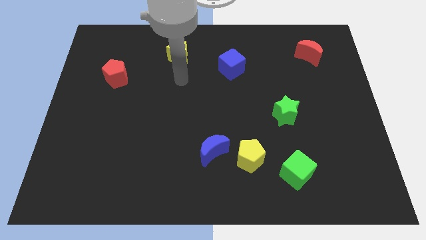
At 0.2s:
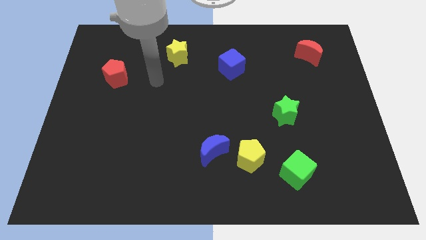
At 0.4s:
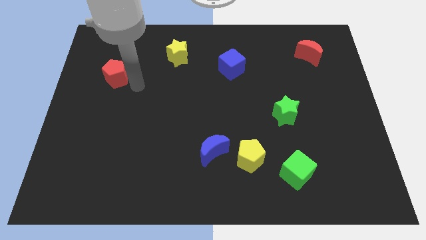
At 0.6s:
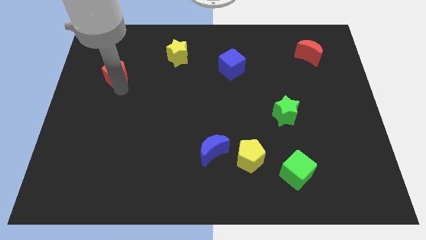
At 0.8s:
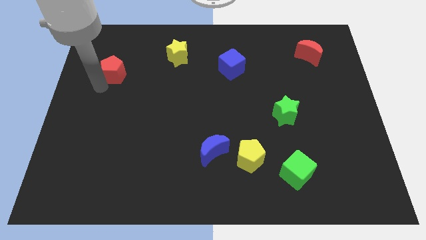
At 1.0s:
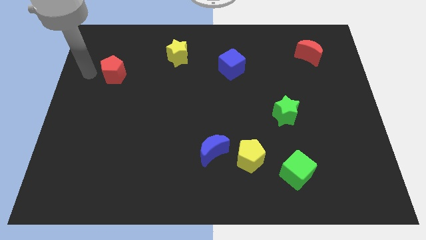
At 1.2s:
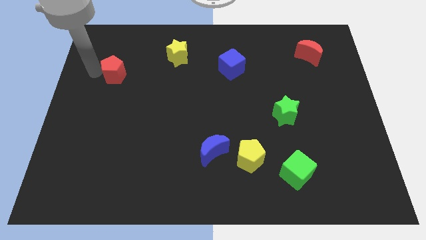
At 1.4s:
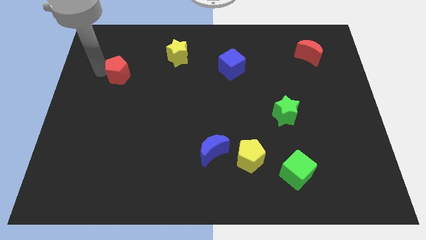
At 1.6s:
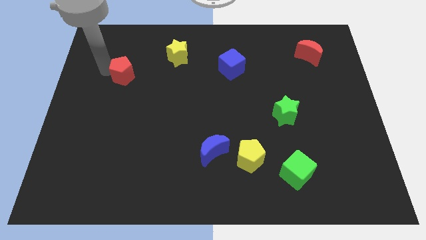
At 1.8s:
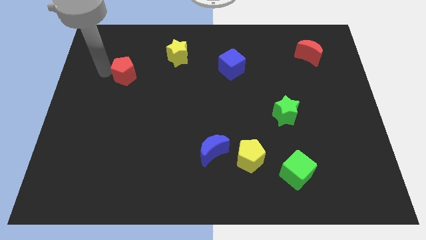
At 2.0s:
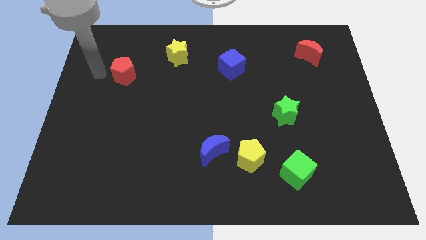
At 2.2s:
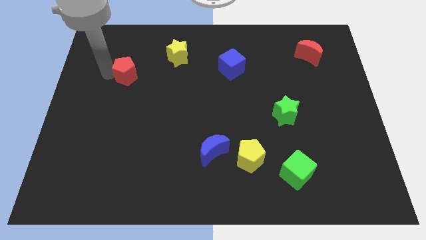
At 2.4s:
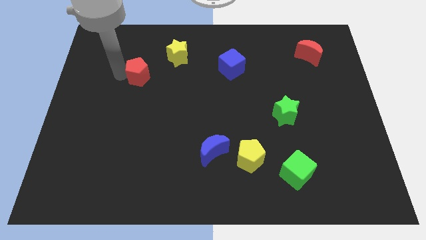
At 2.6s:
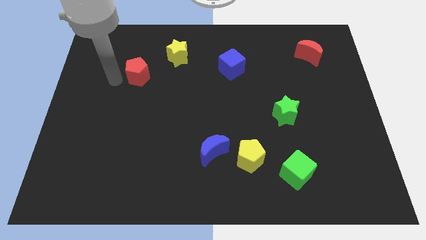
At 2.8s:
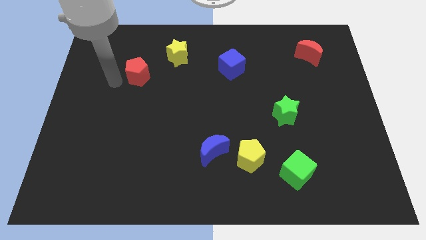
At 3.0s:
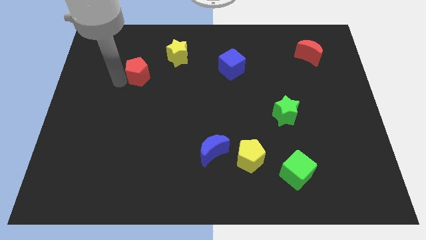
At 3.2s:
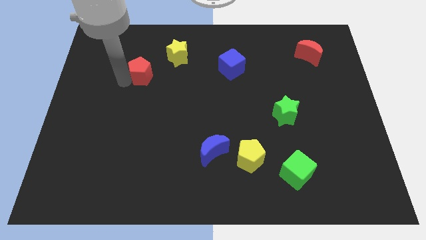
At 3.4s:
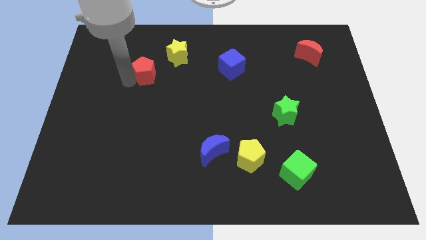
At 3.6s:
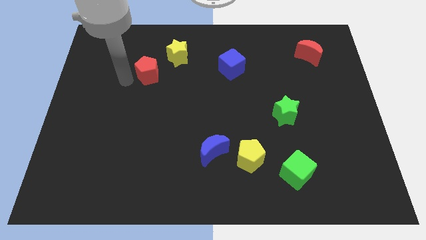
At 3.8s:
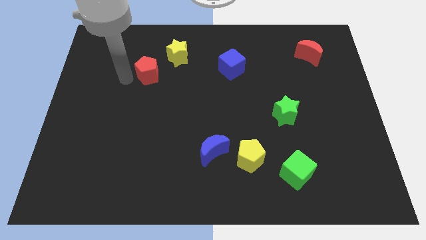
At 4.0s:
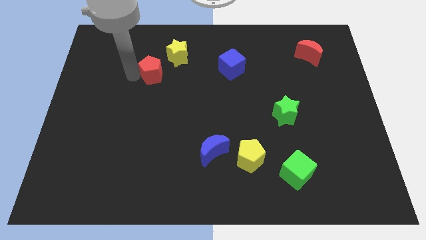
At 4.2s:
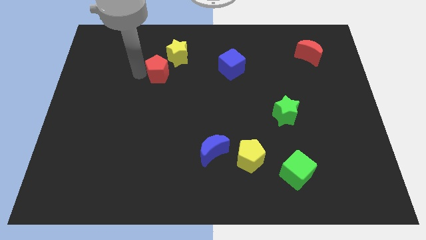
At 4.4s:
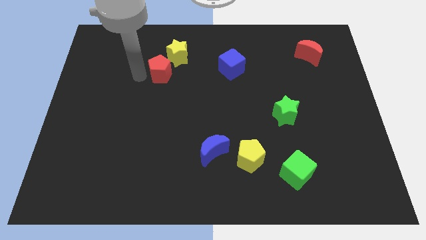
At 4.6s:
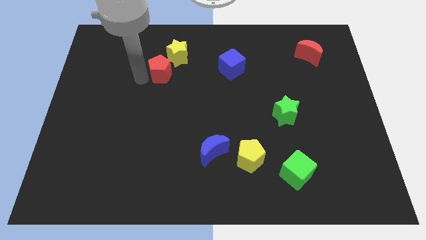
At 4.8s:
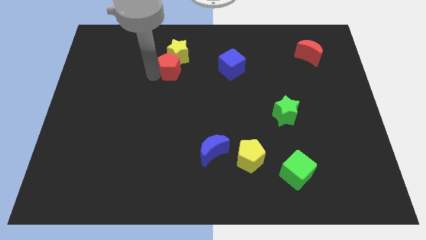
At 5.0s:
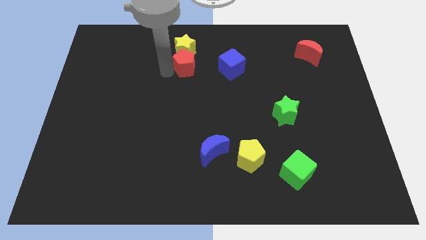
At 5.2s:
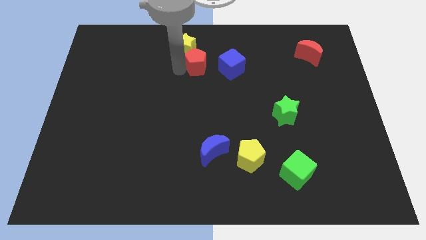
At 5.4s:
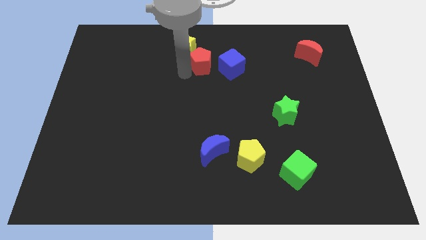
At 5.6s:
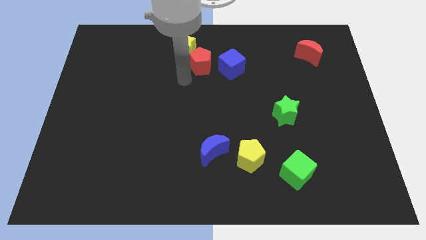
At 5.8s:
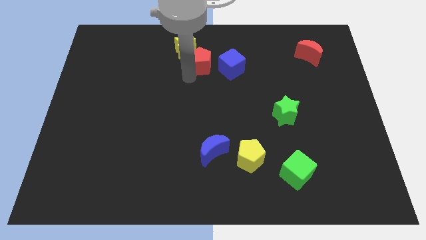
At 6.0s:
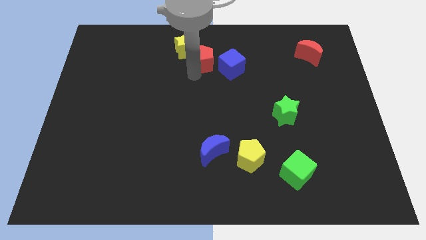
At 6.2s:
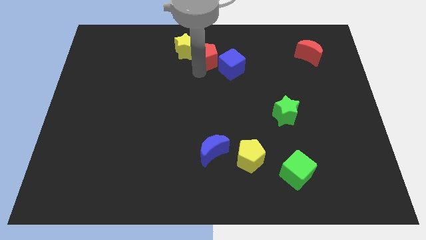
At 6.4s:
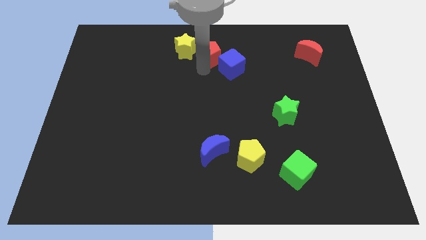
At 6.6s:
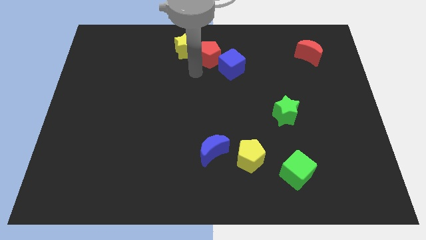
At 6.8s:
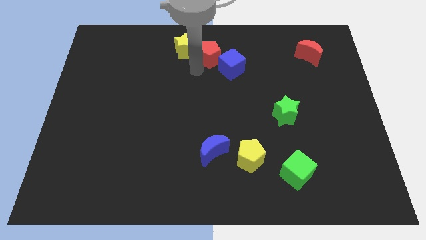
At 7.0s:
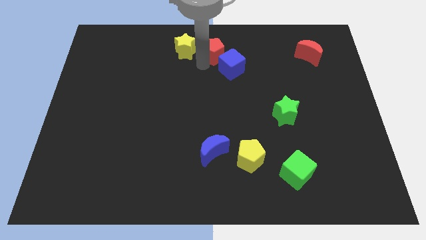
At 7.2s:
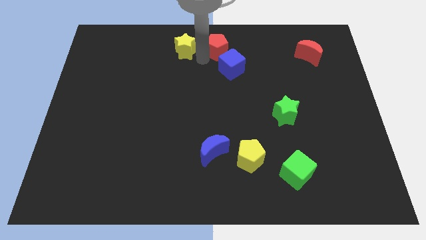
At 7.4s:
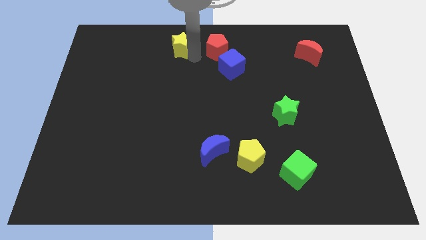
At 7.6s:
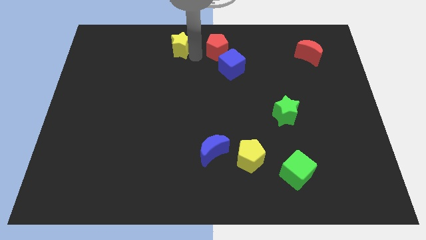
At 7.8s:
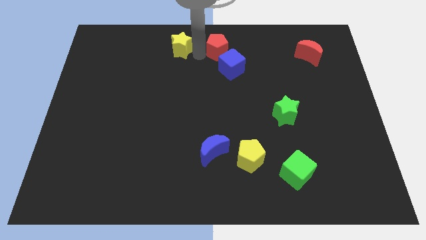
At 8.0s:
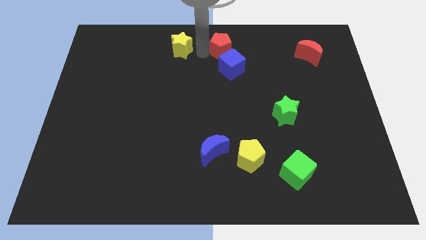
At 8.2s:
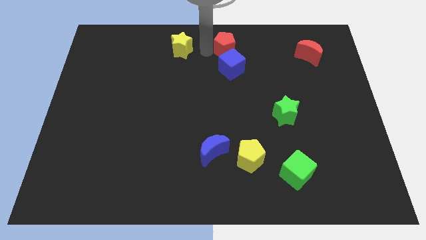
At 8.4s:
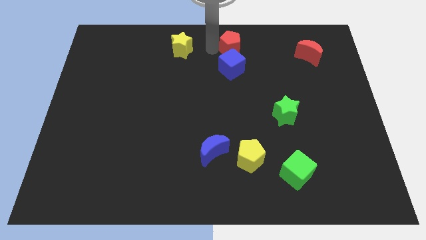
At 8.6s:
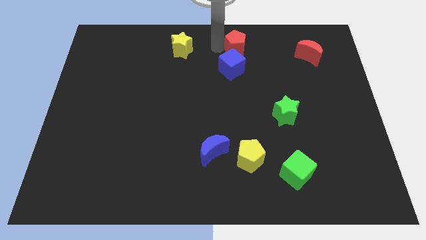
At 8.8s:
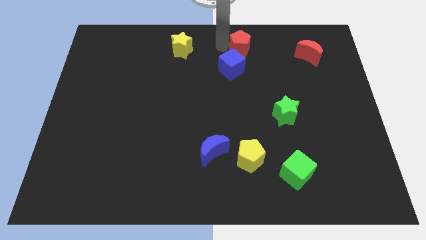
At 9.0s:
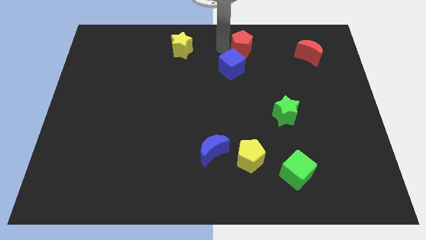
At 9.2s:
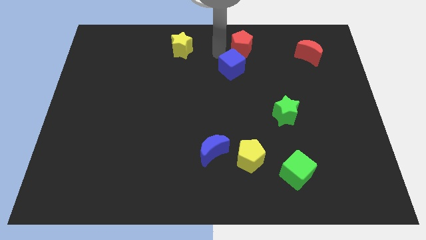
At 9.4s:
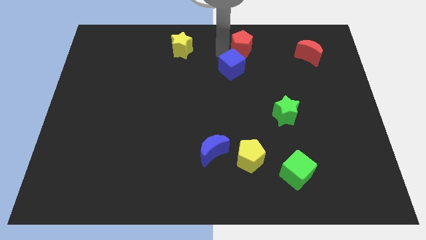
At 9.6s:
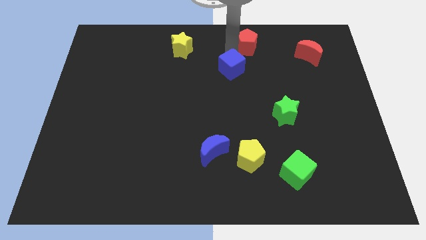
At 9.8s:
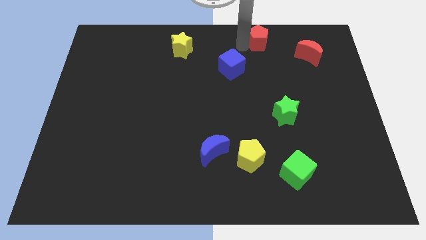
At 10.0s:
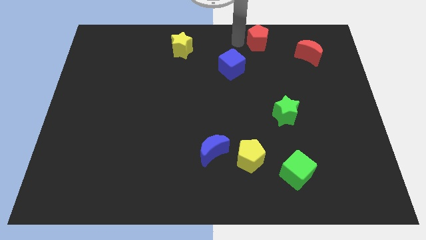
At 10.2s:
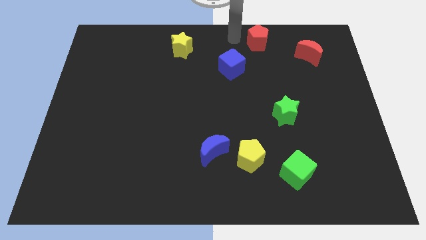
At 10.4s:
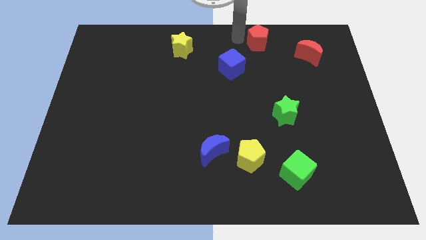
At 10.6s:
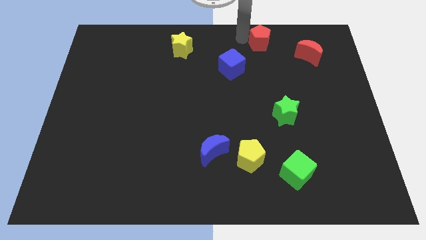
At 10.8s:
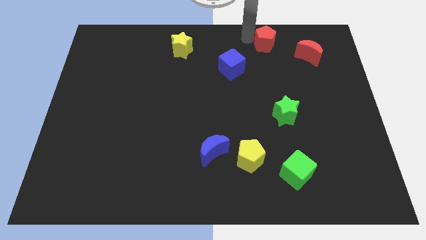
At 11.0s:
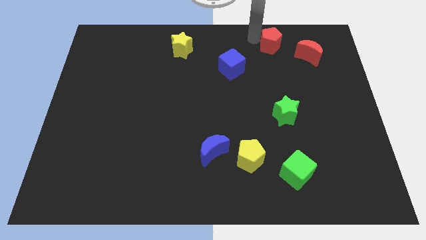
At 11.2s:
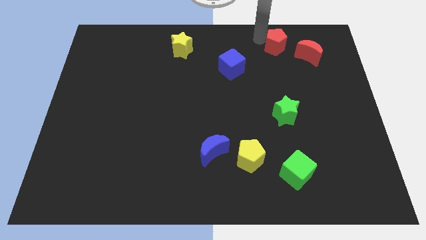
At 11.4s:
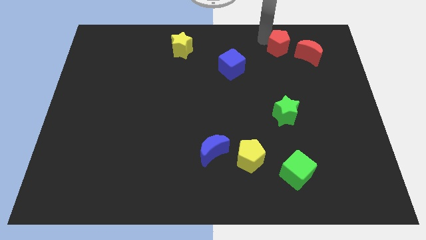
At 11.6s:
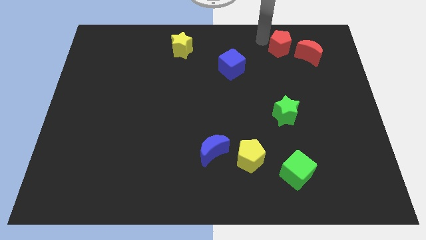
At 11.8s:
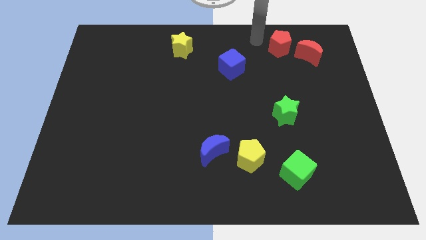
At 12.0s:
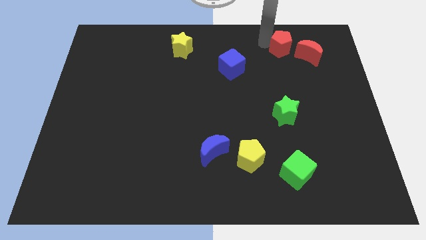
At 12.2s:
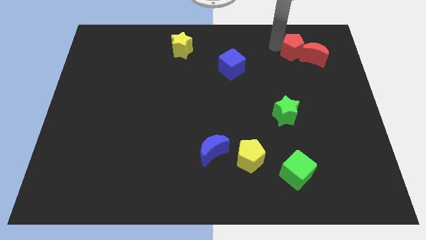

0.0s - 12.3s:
move the red pentagon towards the red moon

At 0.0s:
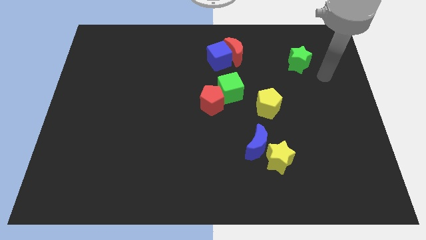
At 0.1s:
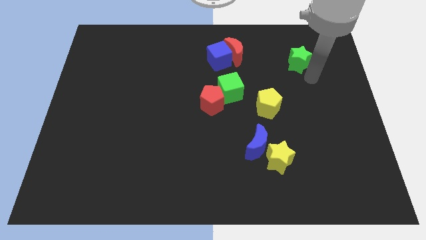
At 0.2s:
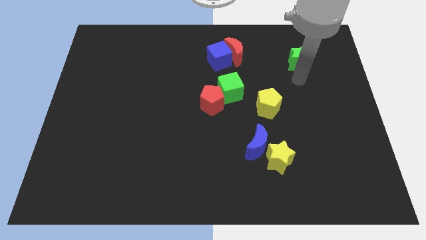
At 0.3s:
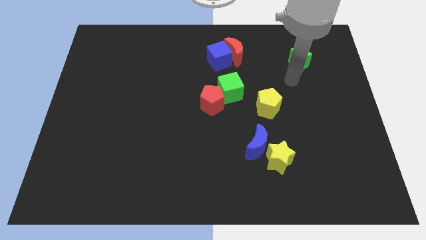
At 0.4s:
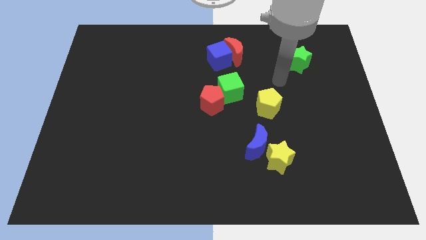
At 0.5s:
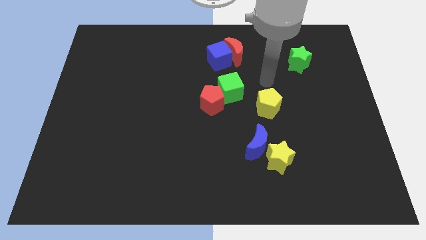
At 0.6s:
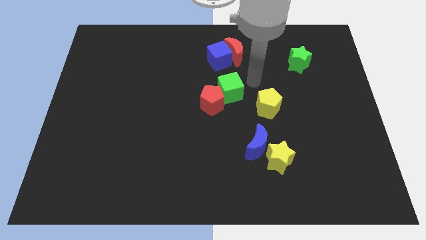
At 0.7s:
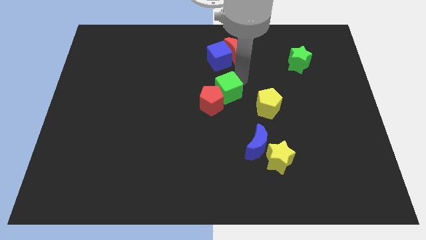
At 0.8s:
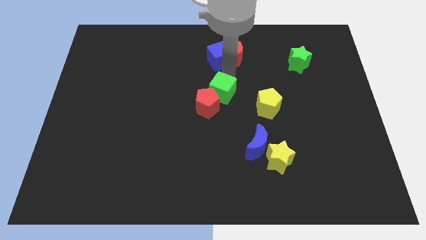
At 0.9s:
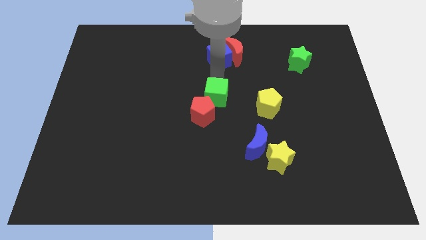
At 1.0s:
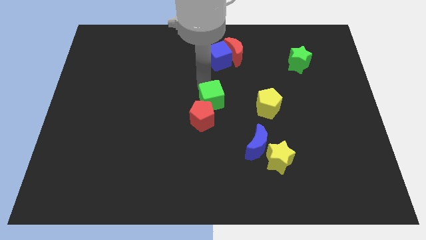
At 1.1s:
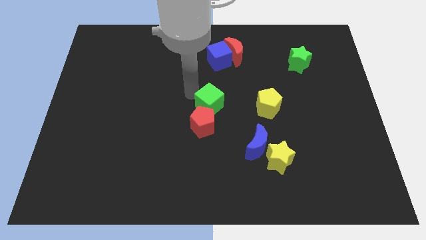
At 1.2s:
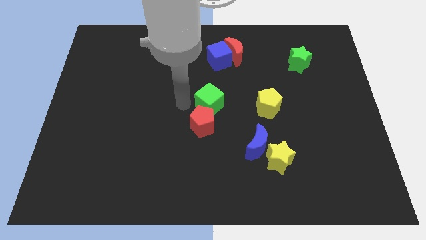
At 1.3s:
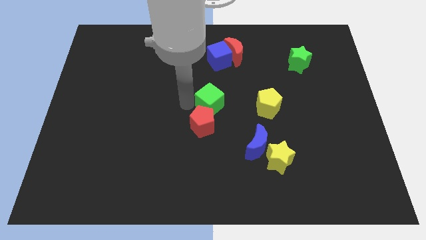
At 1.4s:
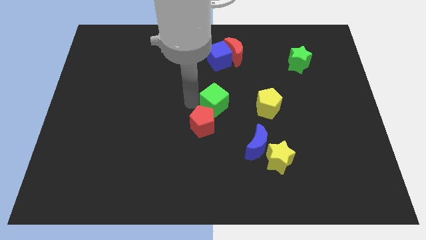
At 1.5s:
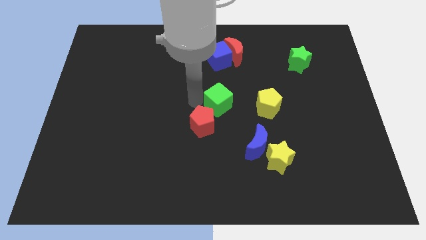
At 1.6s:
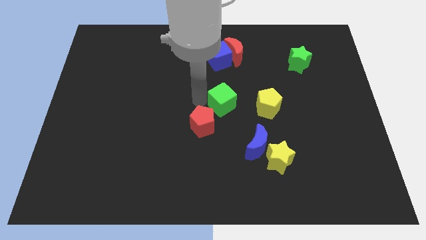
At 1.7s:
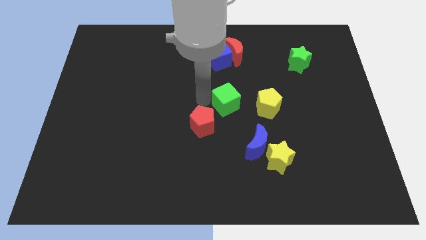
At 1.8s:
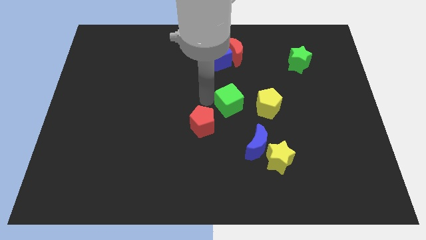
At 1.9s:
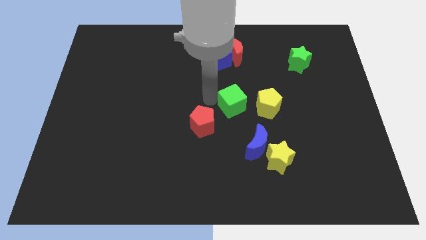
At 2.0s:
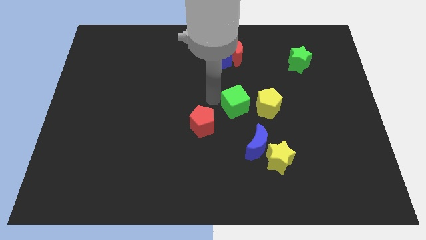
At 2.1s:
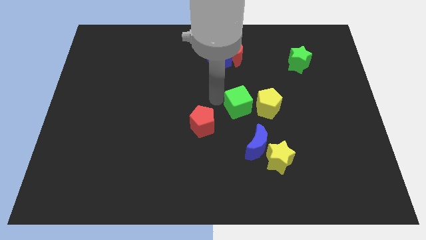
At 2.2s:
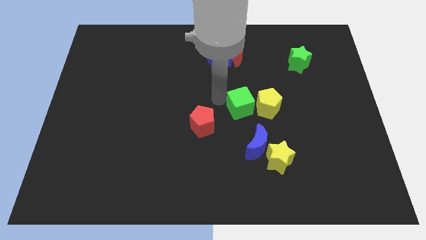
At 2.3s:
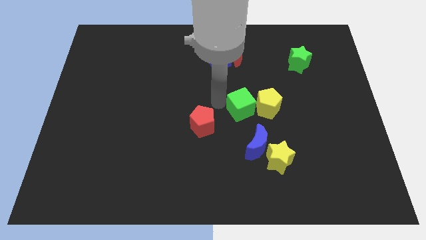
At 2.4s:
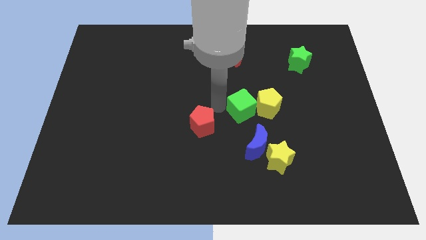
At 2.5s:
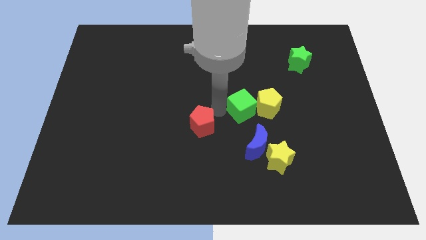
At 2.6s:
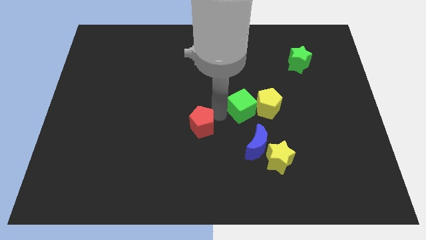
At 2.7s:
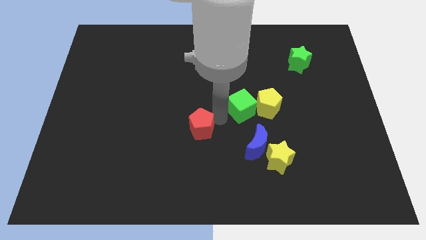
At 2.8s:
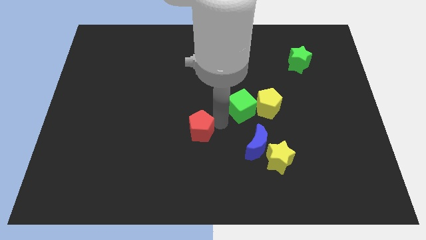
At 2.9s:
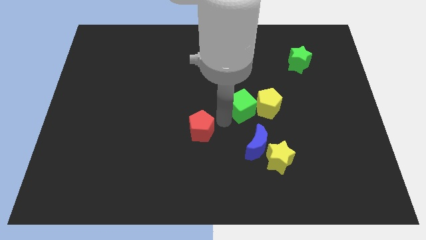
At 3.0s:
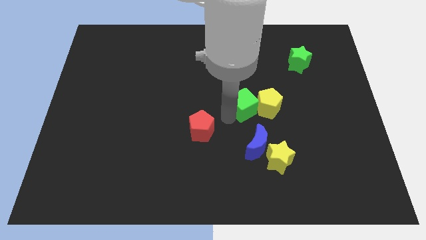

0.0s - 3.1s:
slide the green cube towards the yellow pentagon
